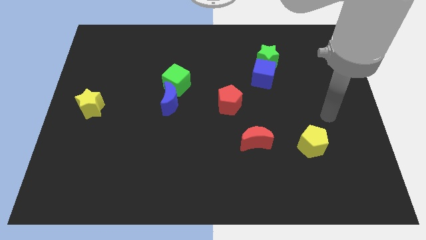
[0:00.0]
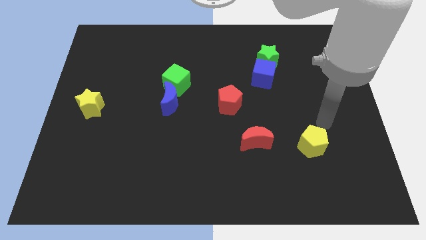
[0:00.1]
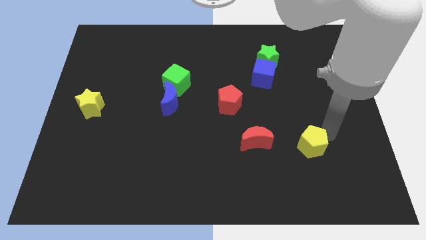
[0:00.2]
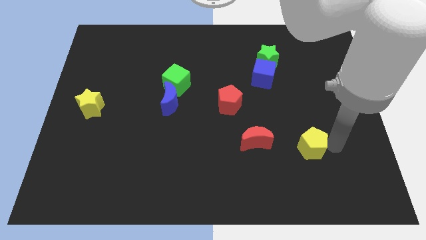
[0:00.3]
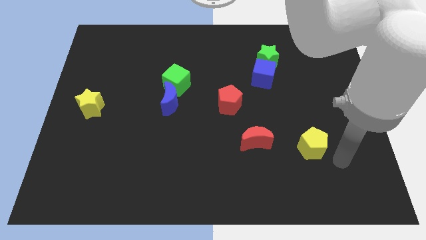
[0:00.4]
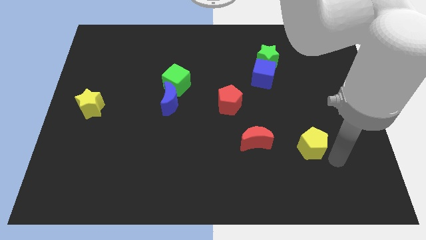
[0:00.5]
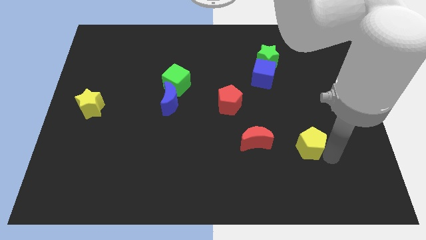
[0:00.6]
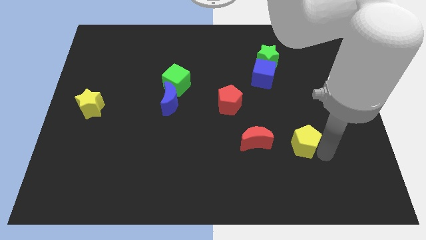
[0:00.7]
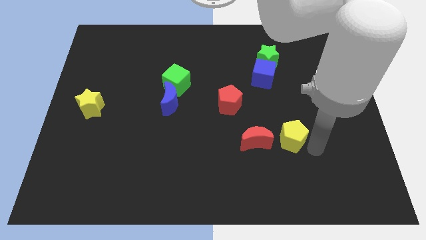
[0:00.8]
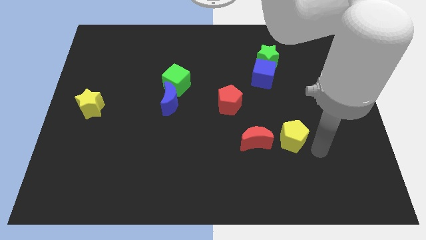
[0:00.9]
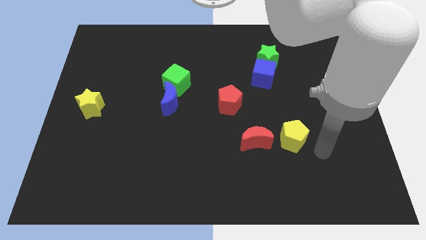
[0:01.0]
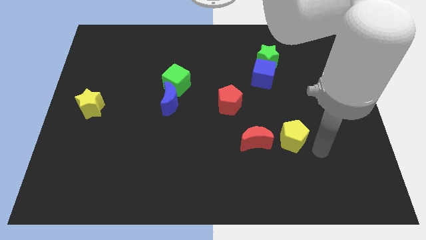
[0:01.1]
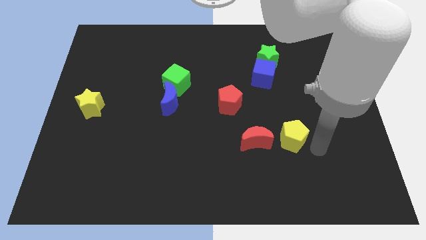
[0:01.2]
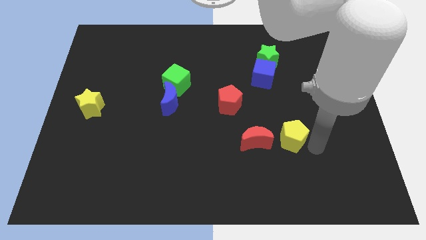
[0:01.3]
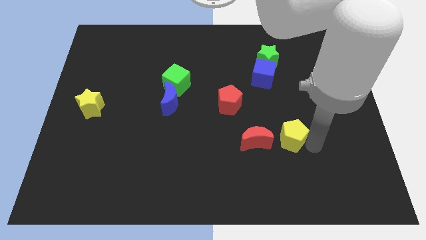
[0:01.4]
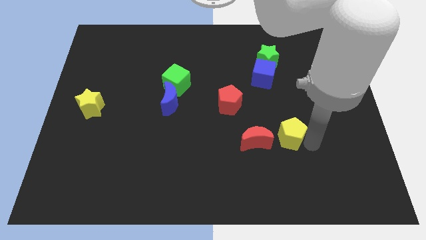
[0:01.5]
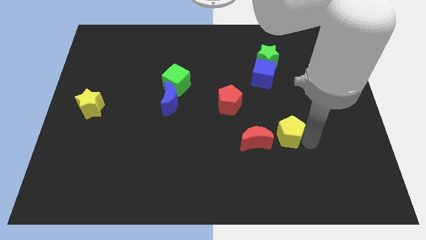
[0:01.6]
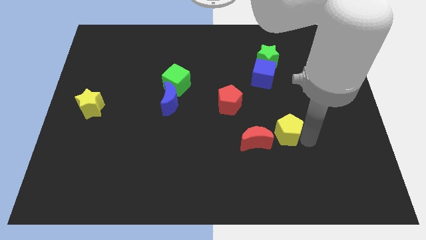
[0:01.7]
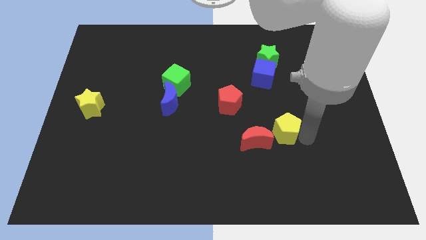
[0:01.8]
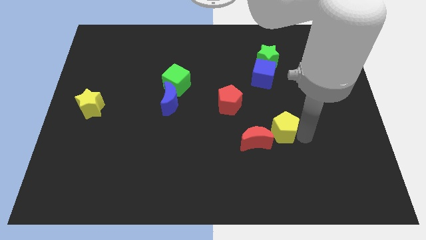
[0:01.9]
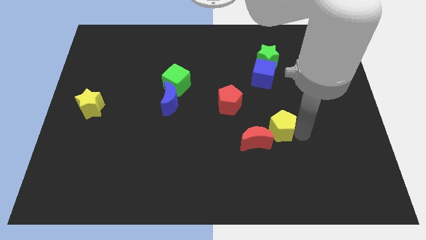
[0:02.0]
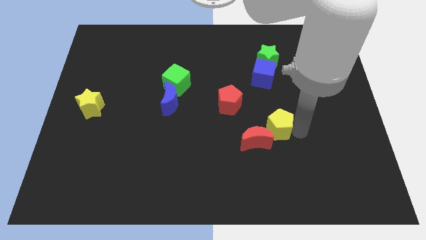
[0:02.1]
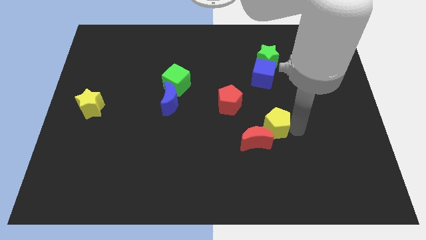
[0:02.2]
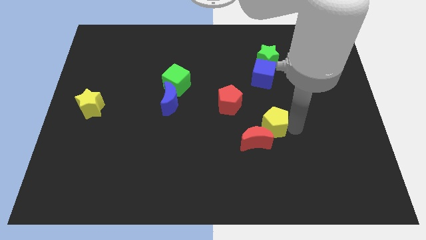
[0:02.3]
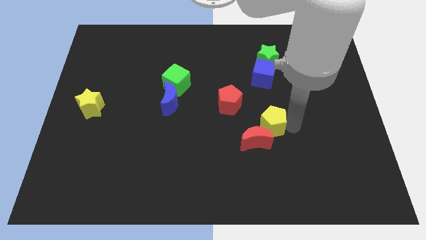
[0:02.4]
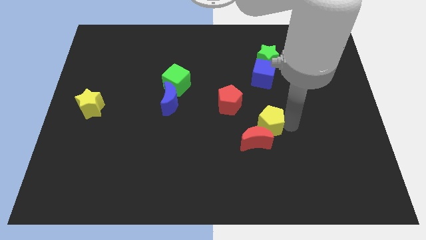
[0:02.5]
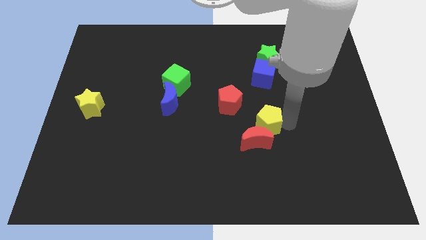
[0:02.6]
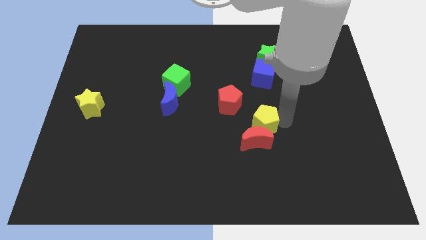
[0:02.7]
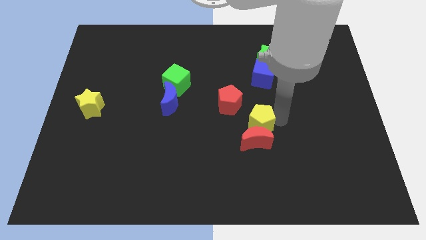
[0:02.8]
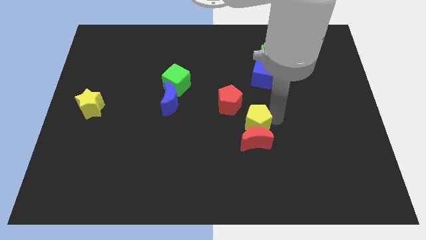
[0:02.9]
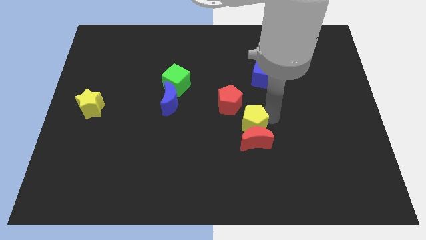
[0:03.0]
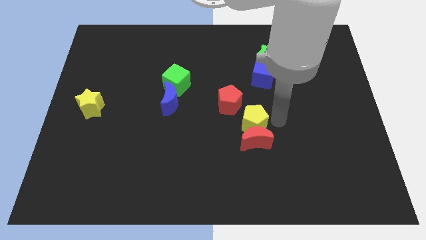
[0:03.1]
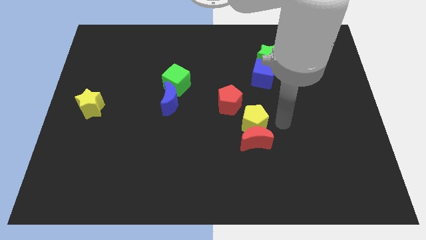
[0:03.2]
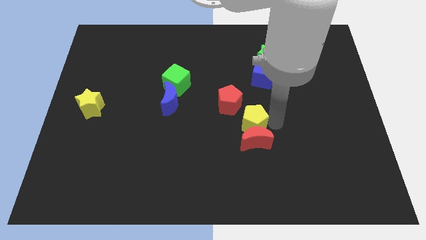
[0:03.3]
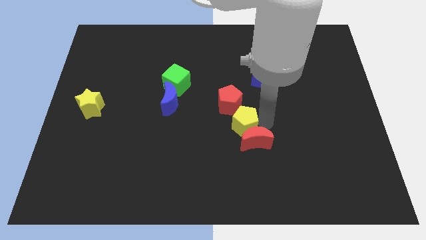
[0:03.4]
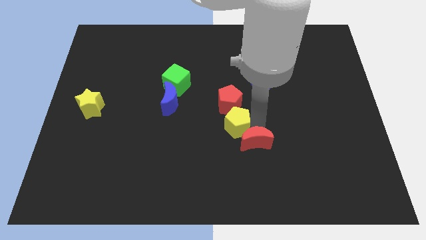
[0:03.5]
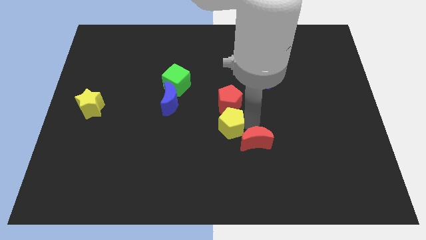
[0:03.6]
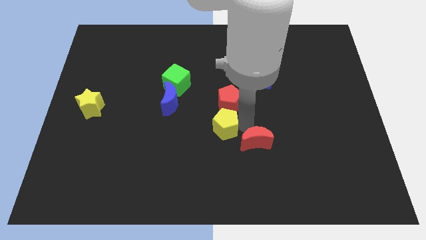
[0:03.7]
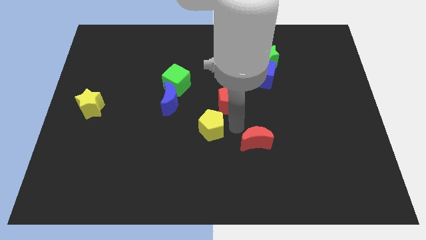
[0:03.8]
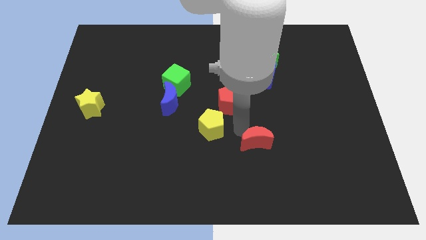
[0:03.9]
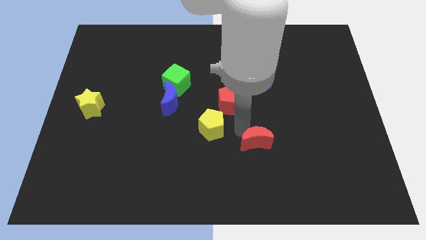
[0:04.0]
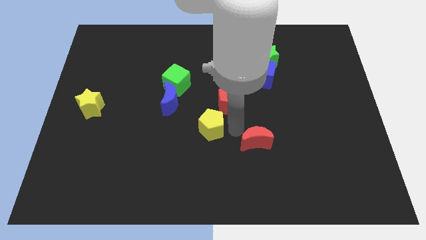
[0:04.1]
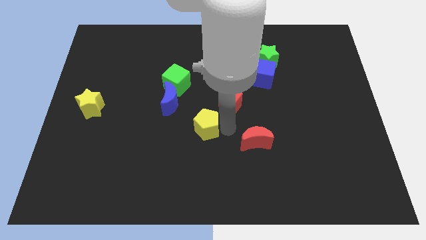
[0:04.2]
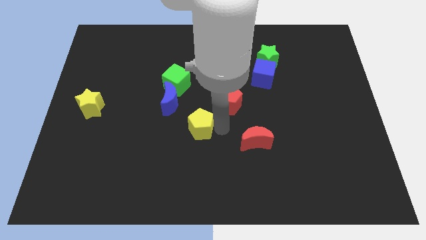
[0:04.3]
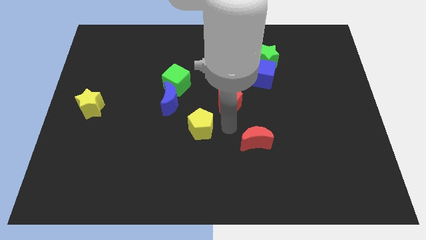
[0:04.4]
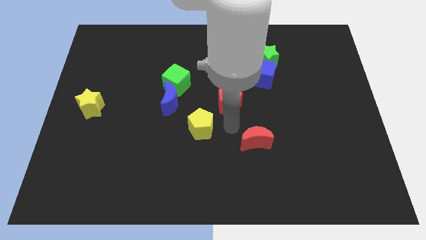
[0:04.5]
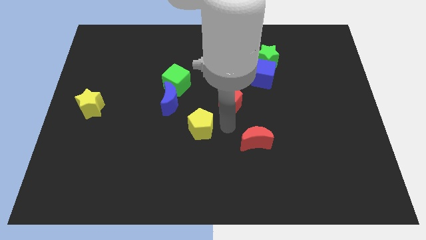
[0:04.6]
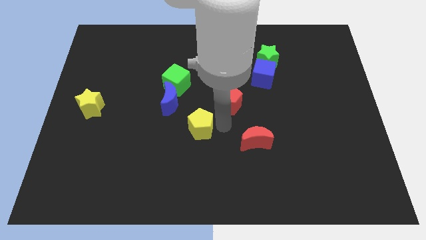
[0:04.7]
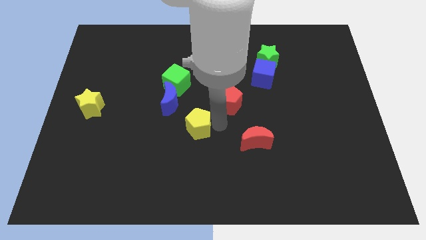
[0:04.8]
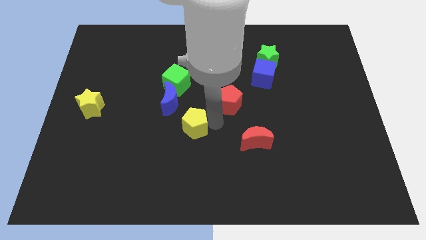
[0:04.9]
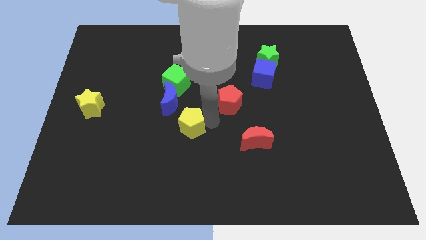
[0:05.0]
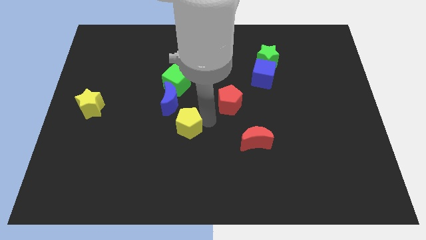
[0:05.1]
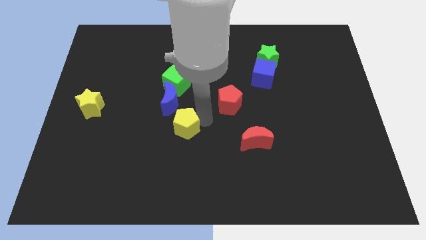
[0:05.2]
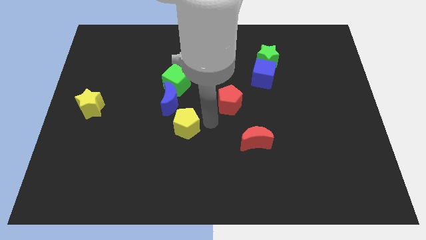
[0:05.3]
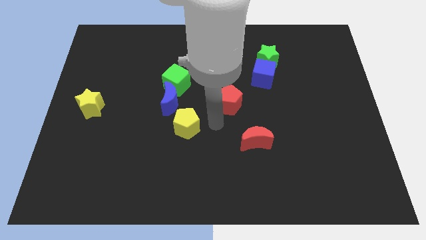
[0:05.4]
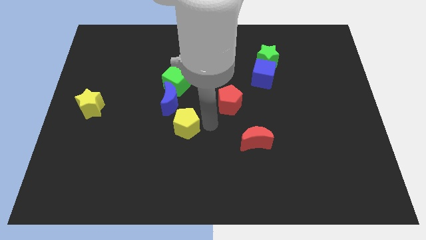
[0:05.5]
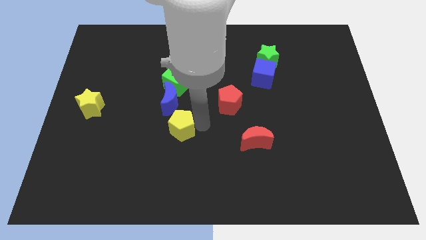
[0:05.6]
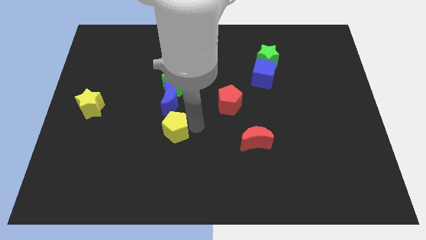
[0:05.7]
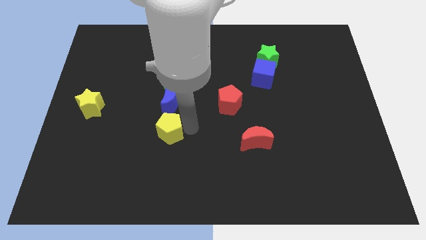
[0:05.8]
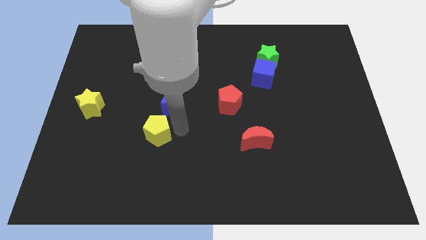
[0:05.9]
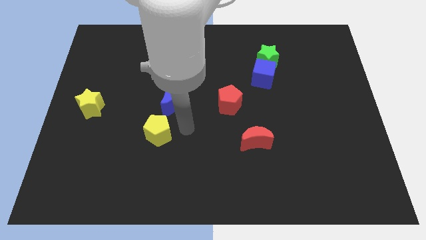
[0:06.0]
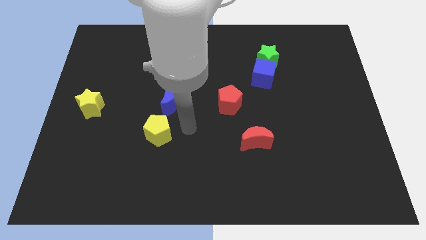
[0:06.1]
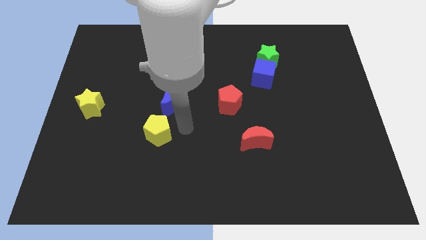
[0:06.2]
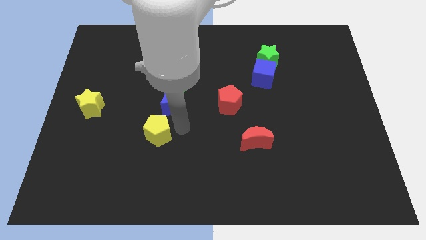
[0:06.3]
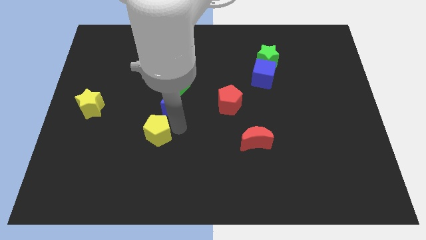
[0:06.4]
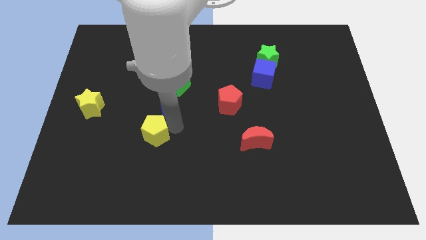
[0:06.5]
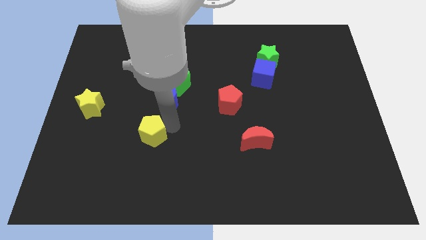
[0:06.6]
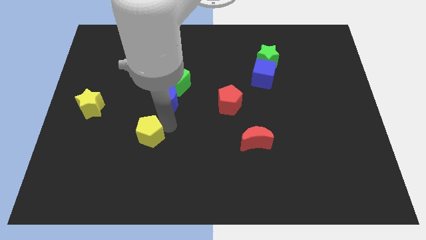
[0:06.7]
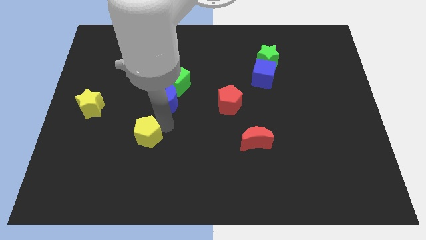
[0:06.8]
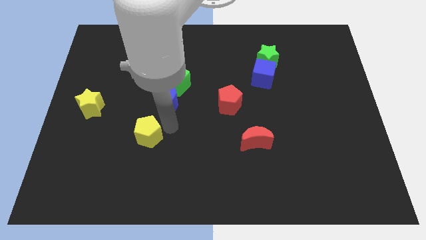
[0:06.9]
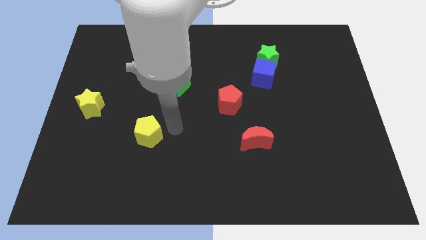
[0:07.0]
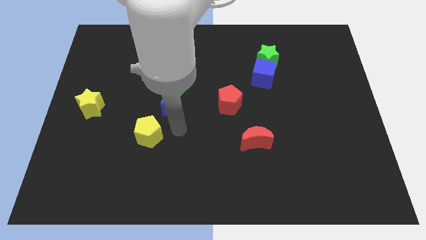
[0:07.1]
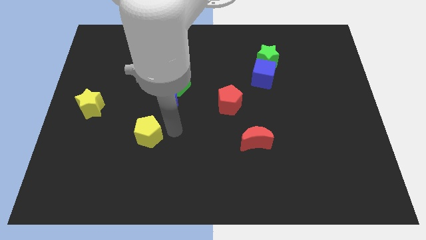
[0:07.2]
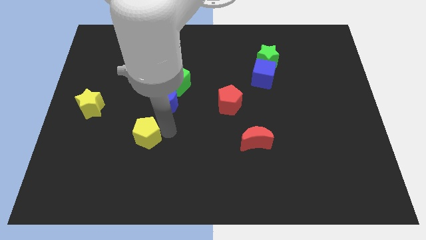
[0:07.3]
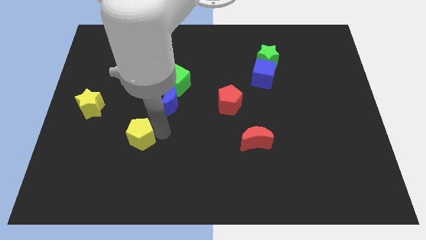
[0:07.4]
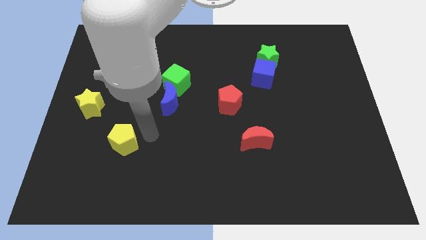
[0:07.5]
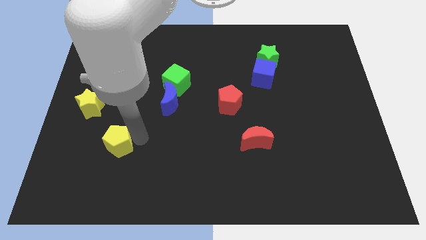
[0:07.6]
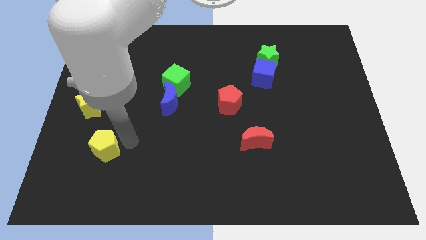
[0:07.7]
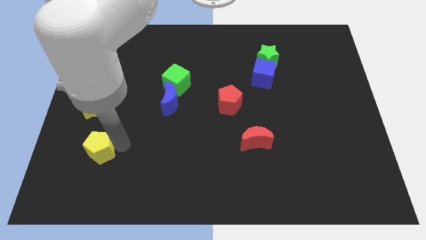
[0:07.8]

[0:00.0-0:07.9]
push the yellow pentagon to the bottom side of the yellow star
